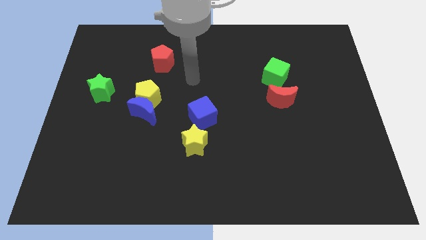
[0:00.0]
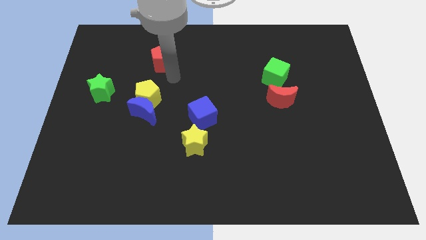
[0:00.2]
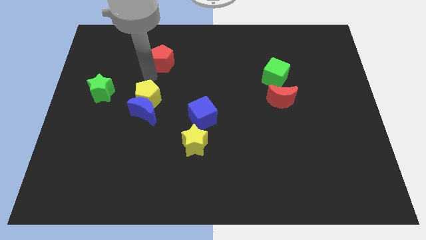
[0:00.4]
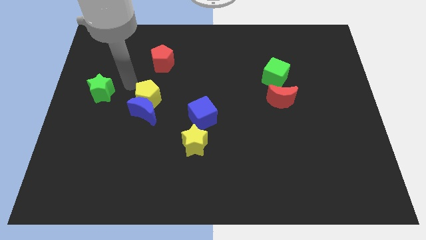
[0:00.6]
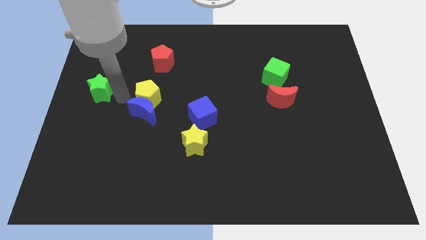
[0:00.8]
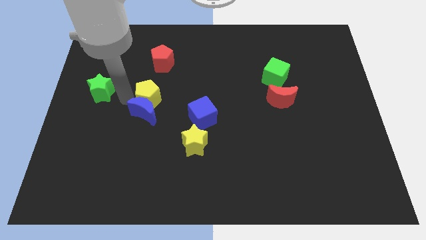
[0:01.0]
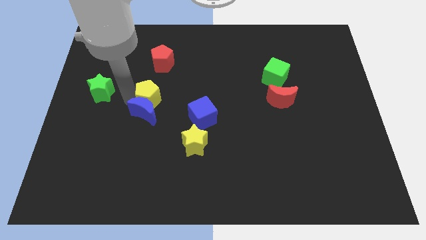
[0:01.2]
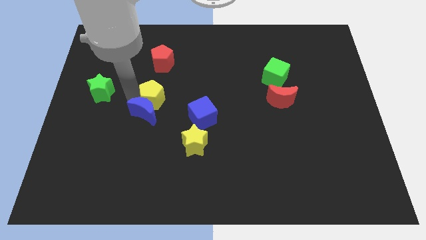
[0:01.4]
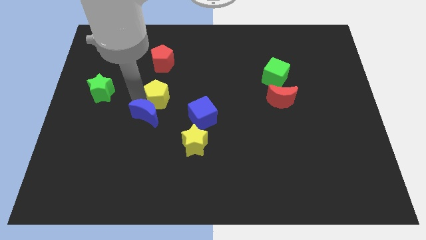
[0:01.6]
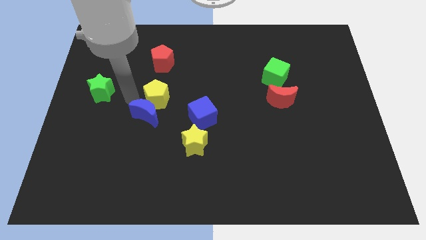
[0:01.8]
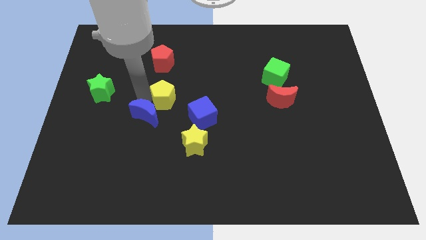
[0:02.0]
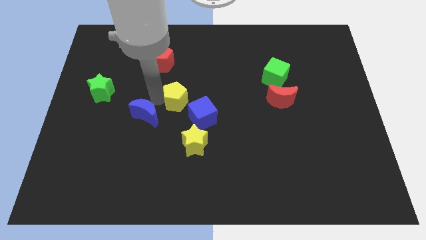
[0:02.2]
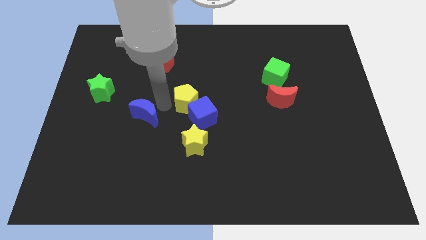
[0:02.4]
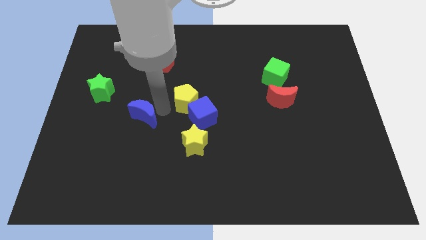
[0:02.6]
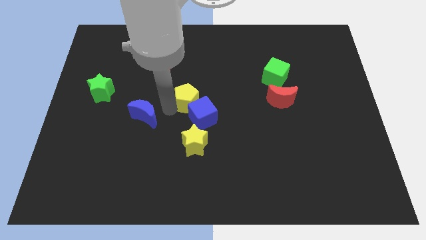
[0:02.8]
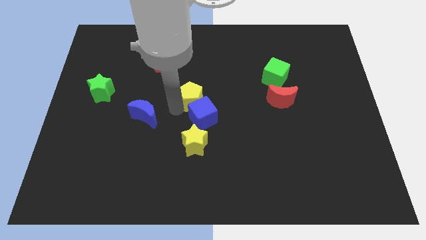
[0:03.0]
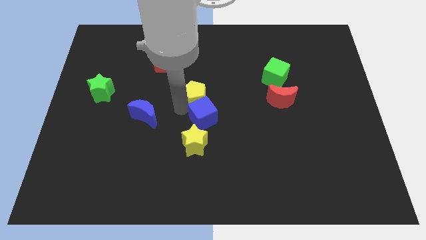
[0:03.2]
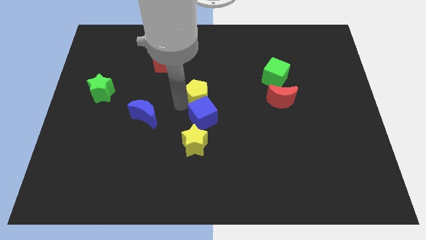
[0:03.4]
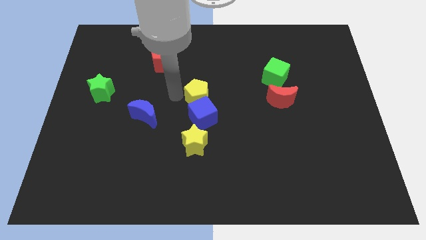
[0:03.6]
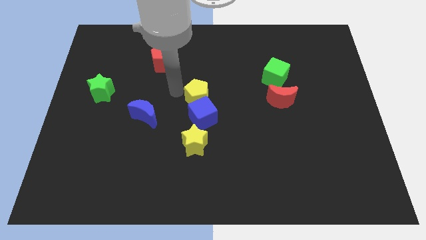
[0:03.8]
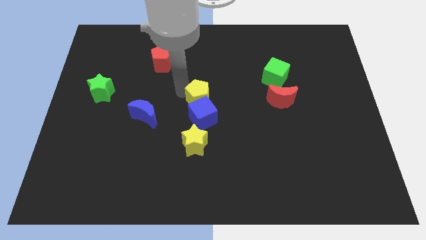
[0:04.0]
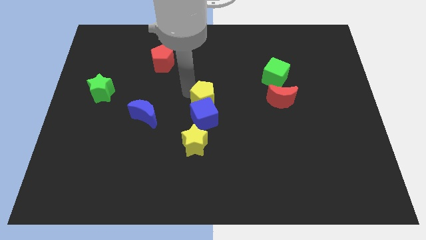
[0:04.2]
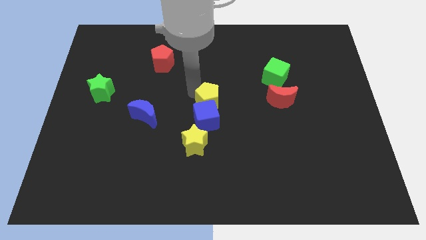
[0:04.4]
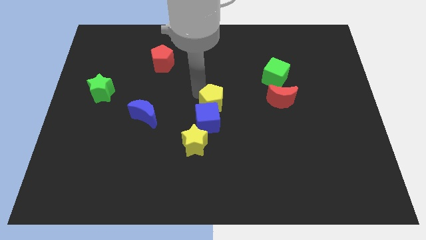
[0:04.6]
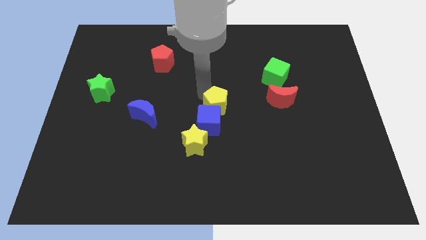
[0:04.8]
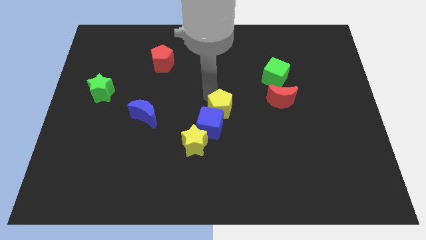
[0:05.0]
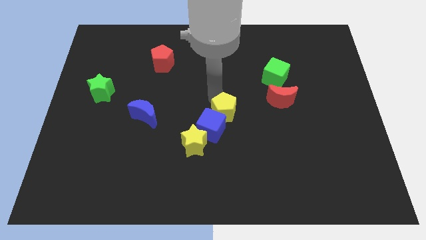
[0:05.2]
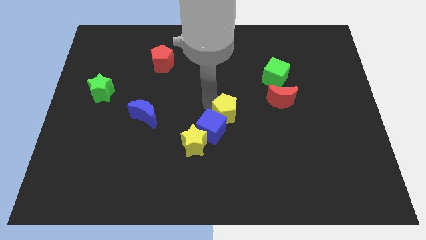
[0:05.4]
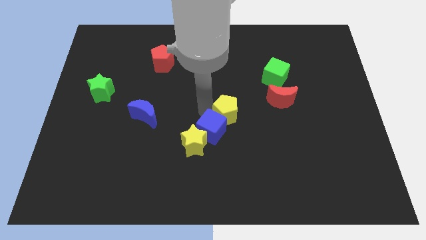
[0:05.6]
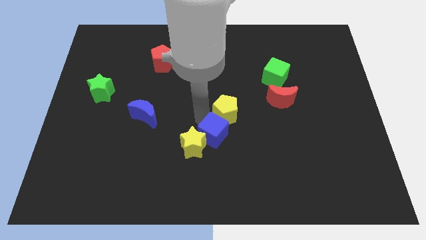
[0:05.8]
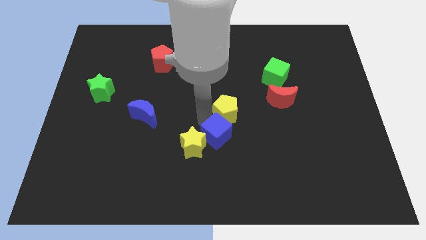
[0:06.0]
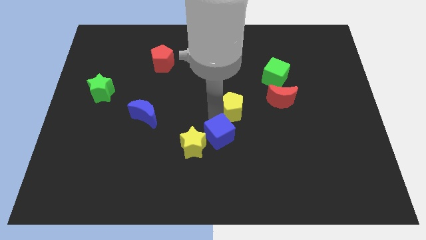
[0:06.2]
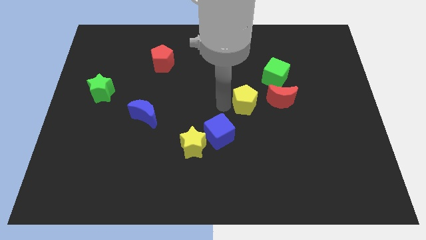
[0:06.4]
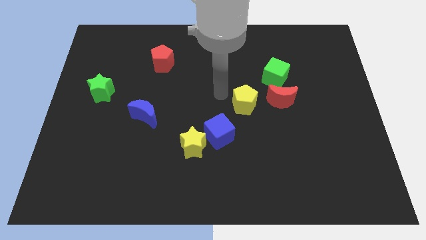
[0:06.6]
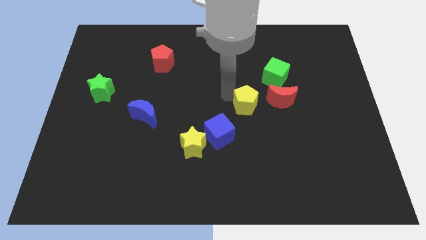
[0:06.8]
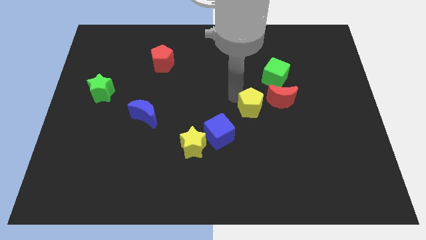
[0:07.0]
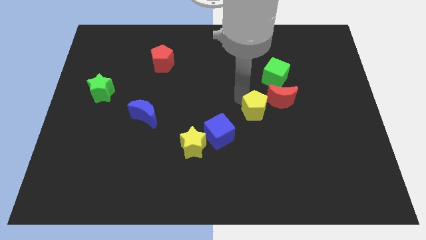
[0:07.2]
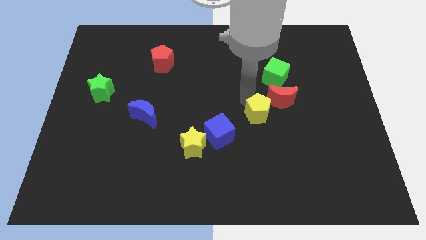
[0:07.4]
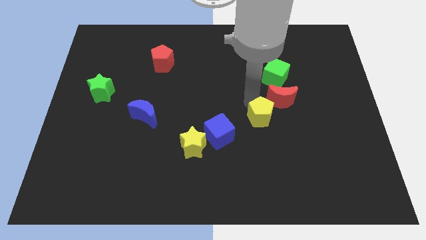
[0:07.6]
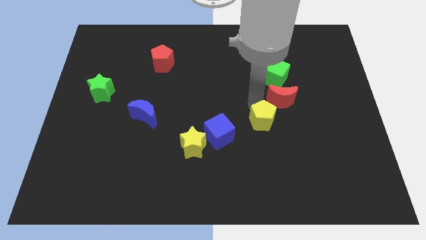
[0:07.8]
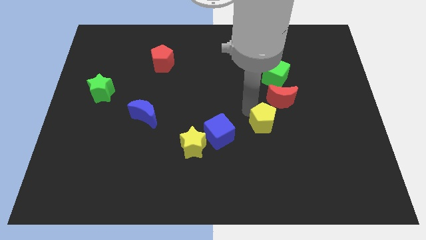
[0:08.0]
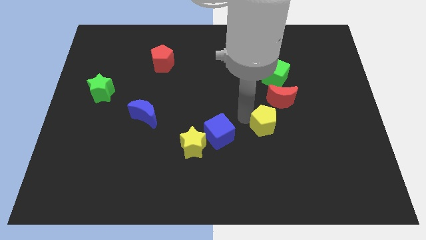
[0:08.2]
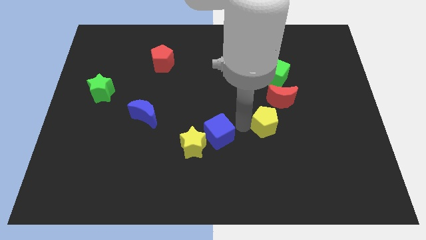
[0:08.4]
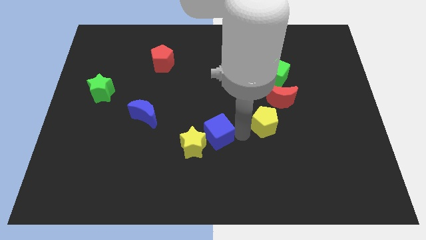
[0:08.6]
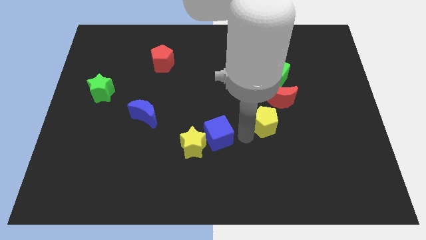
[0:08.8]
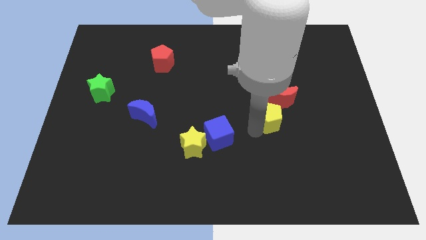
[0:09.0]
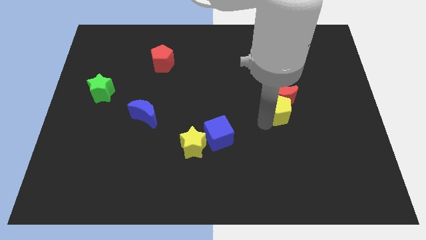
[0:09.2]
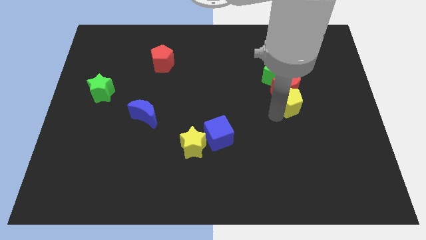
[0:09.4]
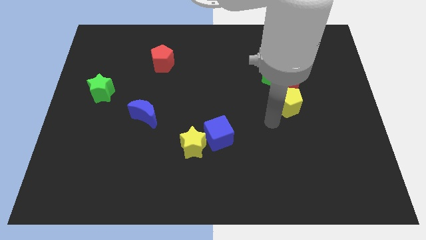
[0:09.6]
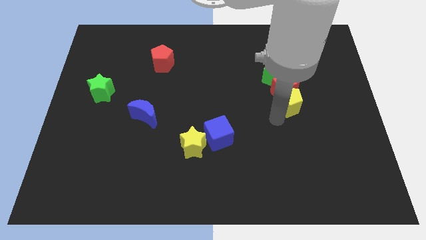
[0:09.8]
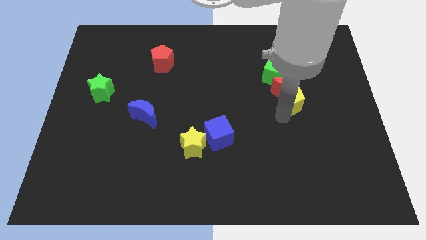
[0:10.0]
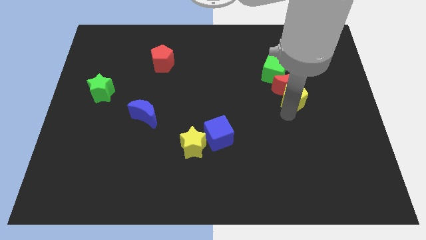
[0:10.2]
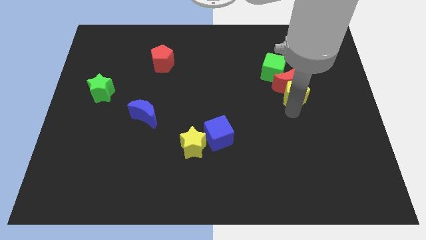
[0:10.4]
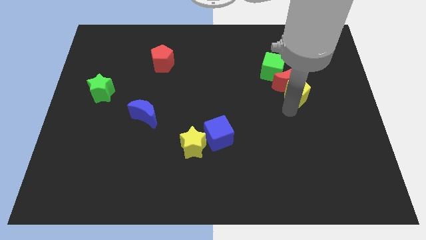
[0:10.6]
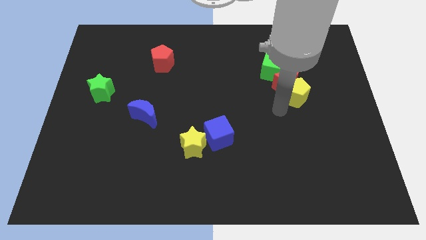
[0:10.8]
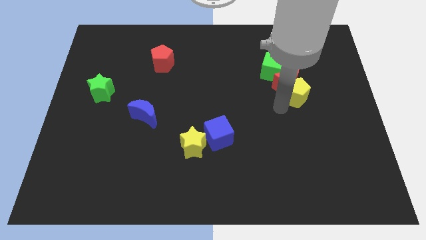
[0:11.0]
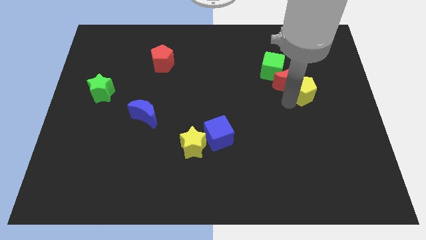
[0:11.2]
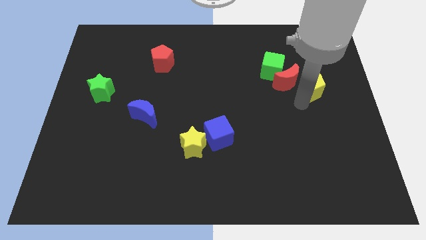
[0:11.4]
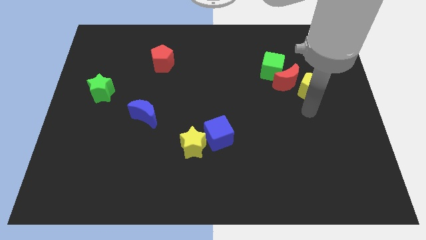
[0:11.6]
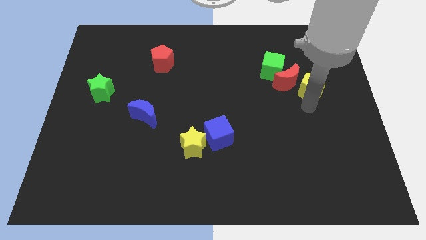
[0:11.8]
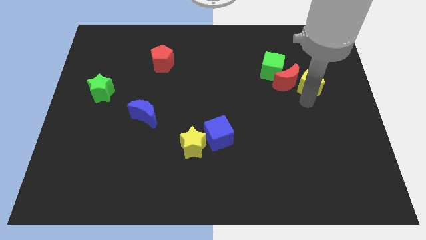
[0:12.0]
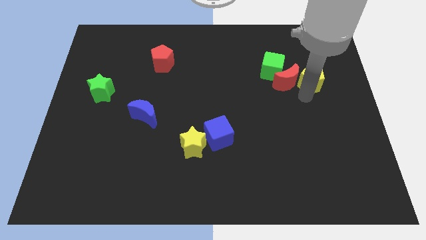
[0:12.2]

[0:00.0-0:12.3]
put the yellow pentagon to the right side of the green cube

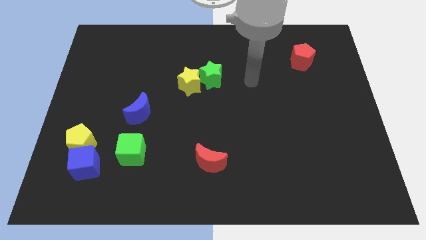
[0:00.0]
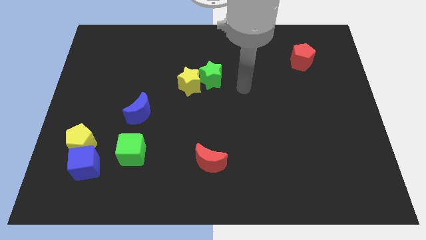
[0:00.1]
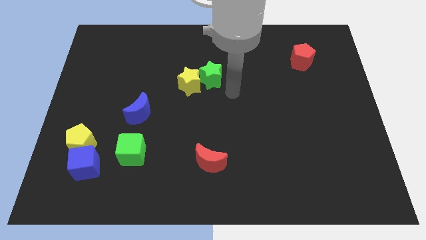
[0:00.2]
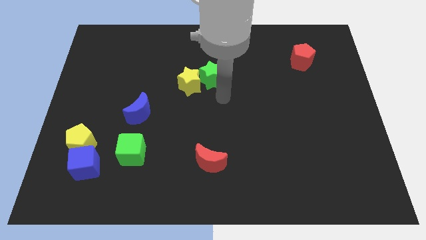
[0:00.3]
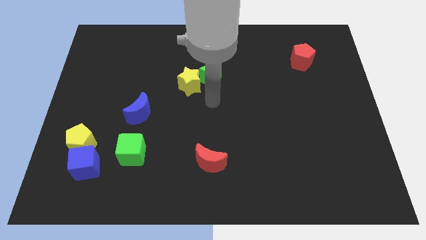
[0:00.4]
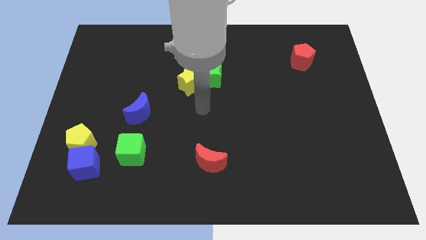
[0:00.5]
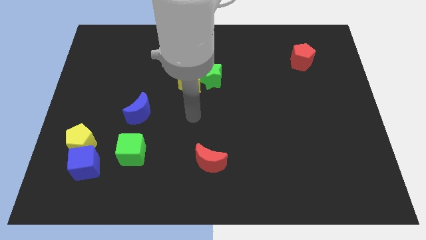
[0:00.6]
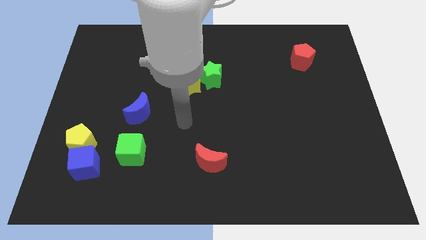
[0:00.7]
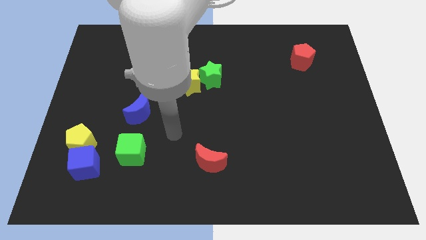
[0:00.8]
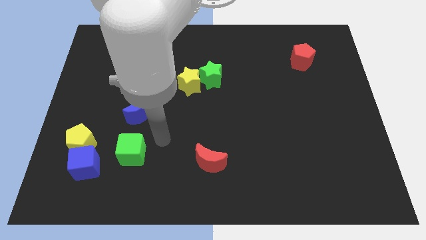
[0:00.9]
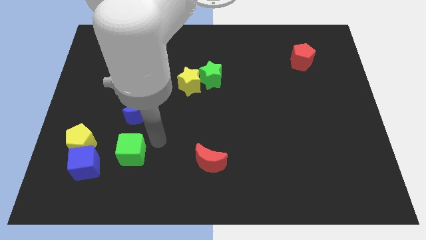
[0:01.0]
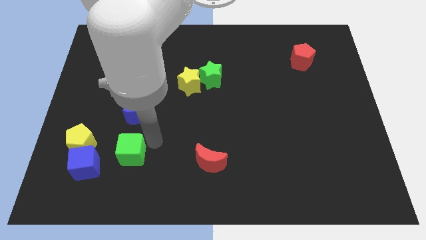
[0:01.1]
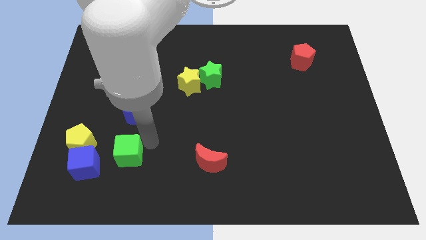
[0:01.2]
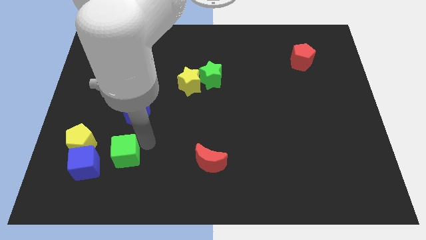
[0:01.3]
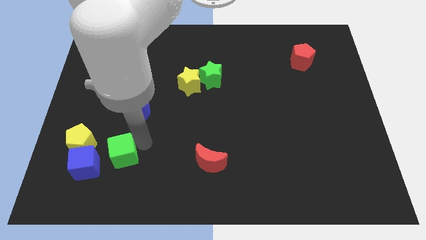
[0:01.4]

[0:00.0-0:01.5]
put the green cube to the bottom right side of the yellow pentagon
